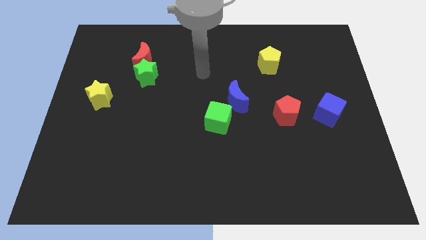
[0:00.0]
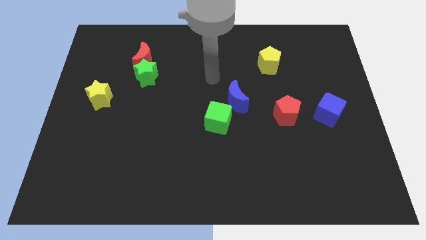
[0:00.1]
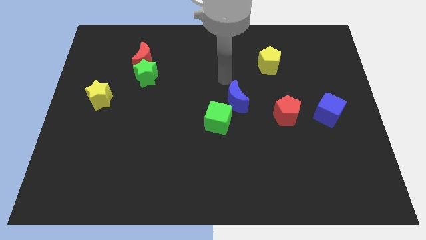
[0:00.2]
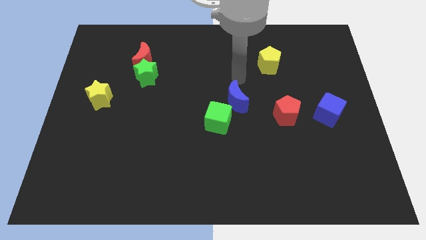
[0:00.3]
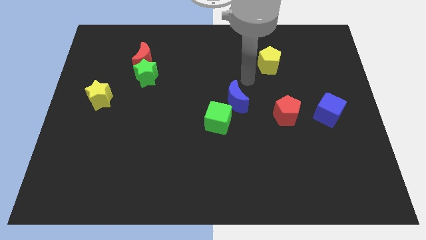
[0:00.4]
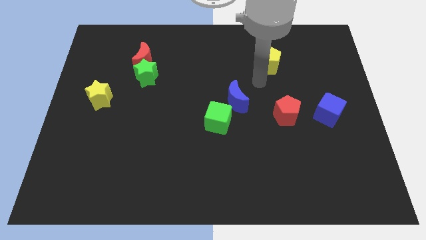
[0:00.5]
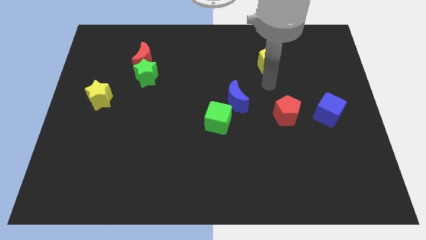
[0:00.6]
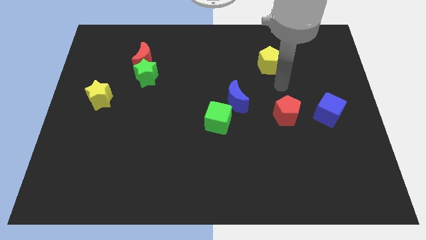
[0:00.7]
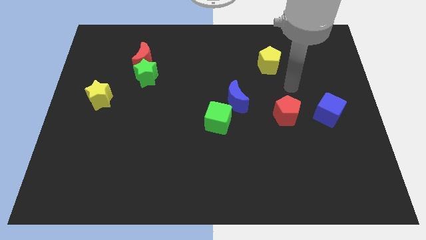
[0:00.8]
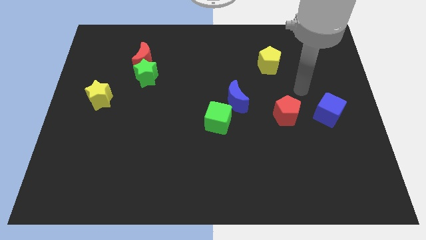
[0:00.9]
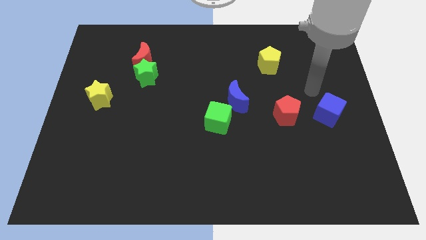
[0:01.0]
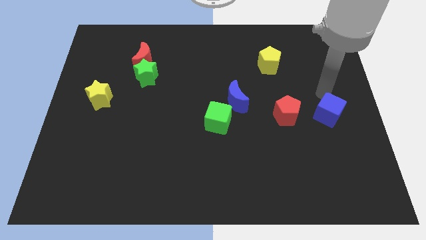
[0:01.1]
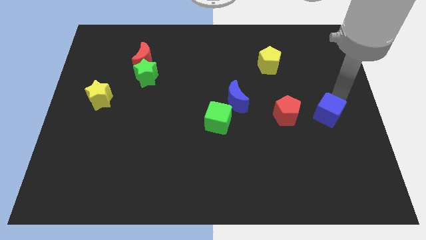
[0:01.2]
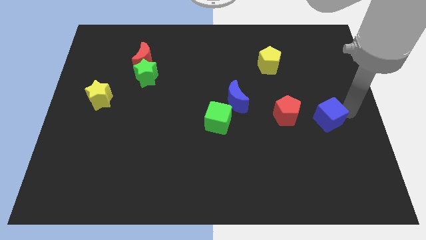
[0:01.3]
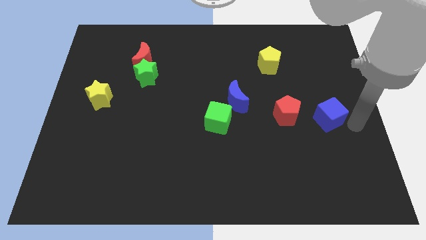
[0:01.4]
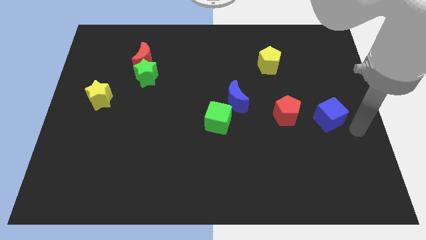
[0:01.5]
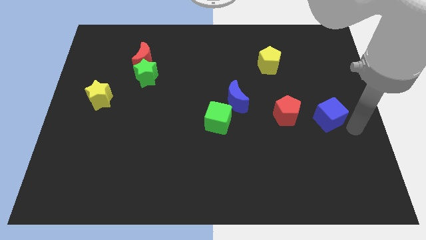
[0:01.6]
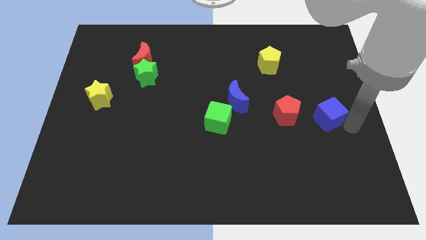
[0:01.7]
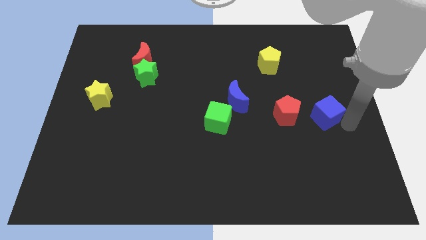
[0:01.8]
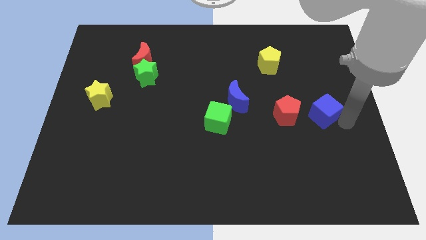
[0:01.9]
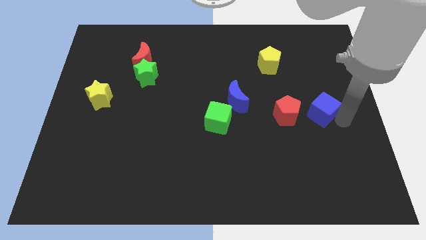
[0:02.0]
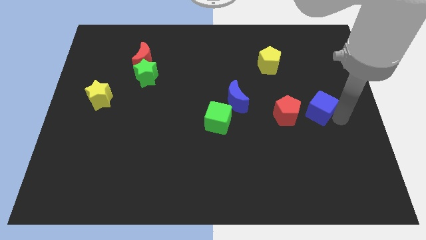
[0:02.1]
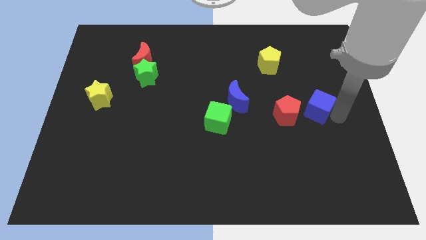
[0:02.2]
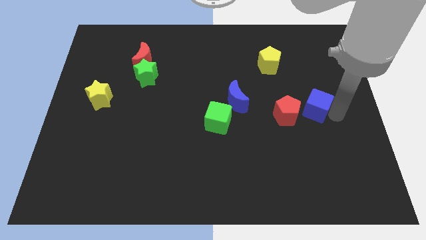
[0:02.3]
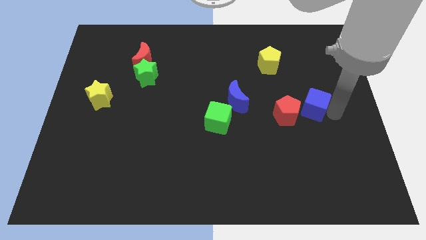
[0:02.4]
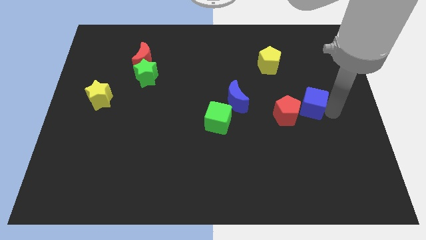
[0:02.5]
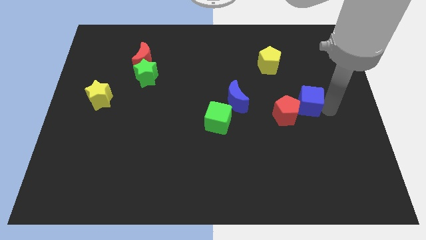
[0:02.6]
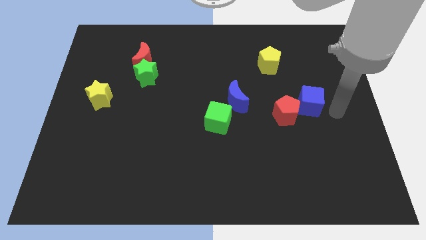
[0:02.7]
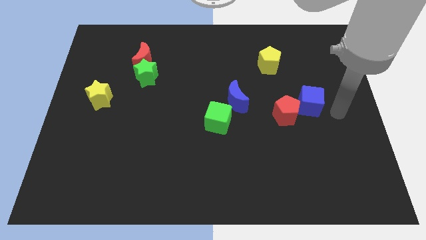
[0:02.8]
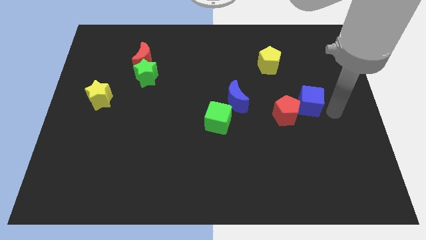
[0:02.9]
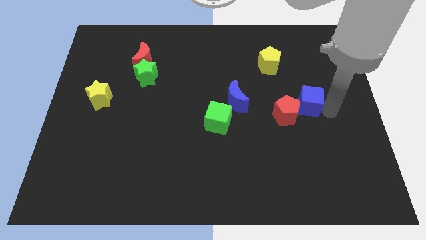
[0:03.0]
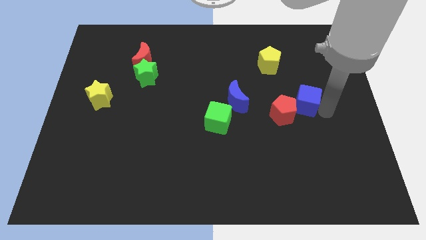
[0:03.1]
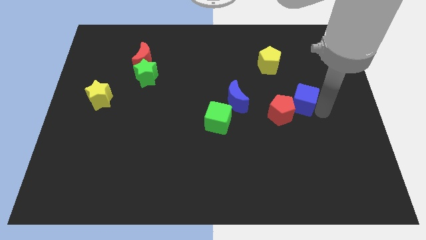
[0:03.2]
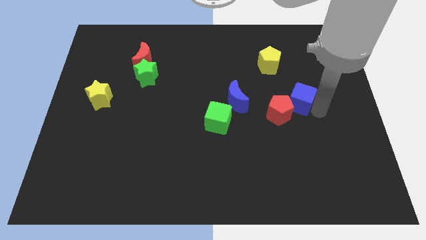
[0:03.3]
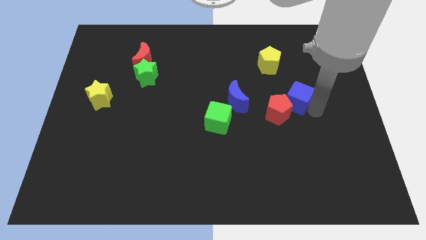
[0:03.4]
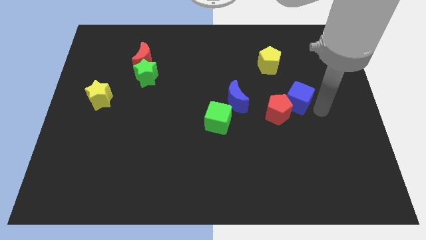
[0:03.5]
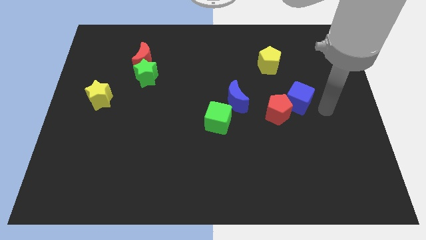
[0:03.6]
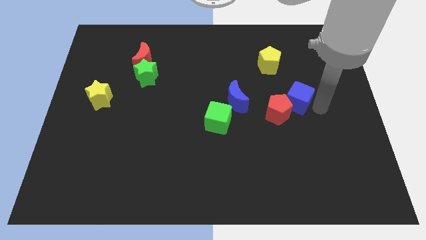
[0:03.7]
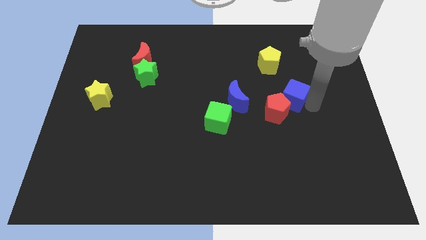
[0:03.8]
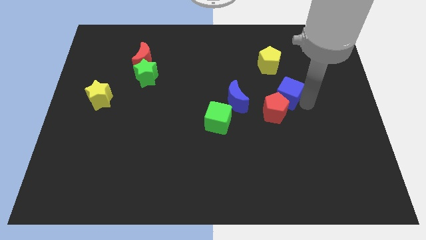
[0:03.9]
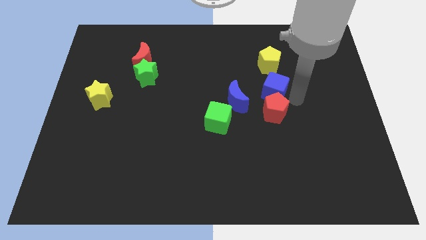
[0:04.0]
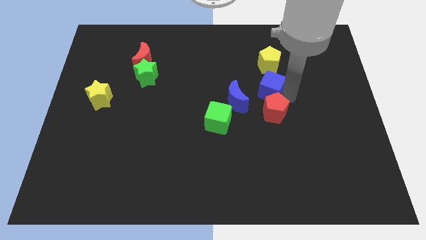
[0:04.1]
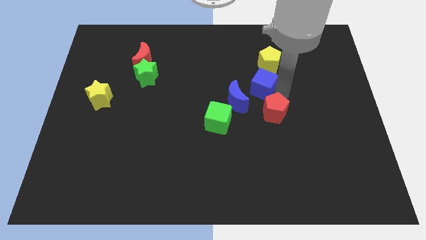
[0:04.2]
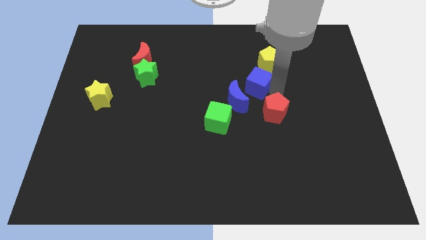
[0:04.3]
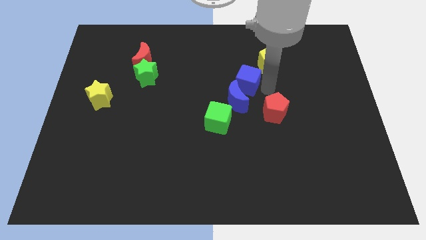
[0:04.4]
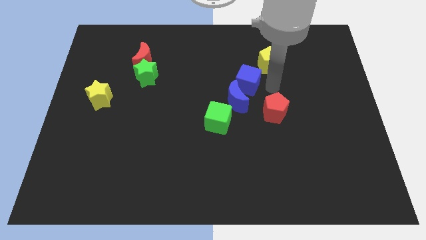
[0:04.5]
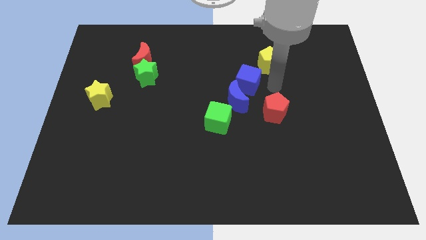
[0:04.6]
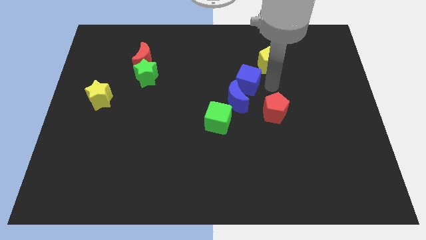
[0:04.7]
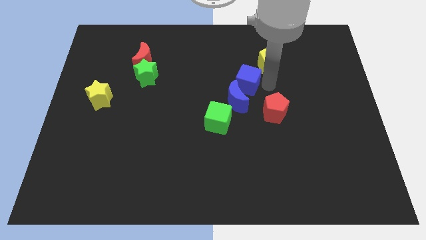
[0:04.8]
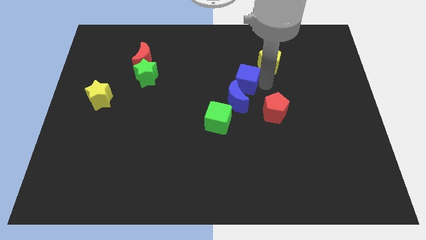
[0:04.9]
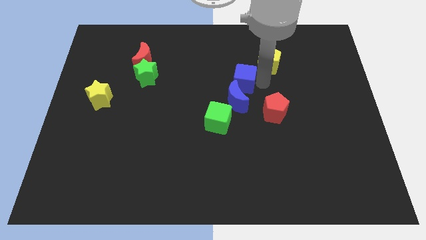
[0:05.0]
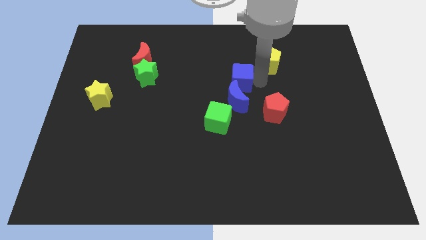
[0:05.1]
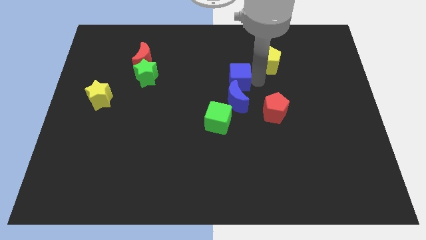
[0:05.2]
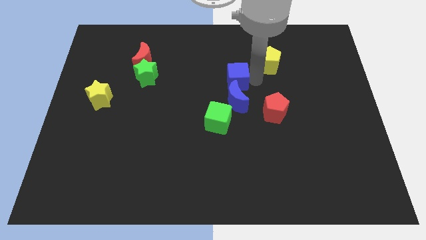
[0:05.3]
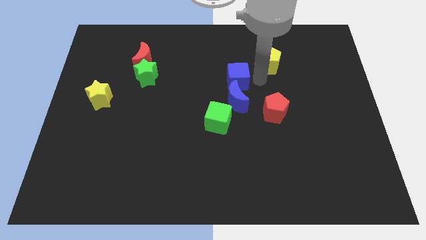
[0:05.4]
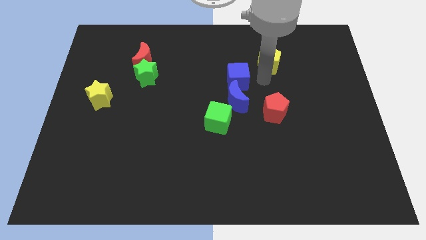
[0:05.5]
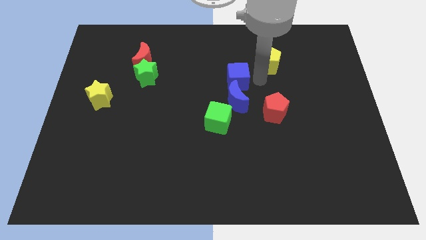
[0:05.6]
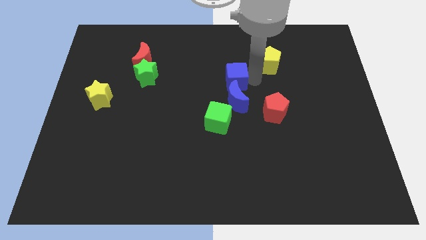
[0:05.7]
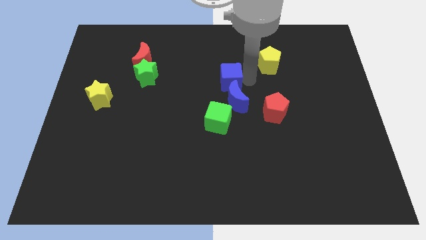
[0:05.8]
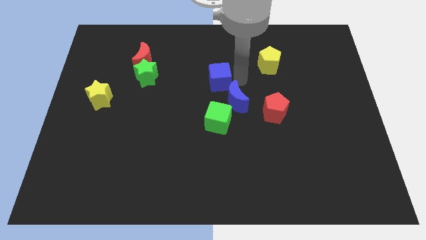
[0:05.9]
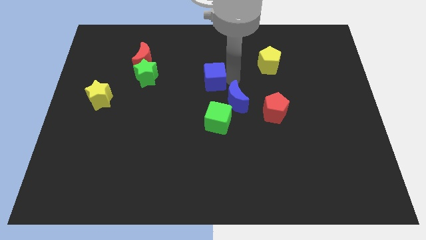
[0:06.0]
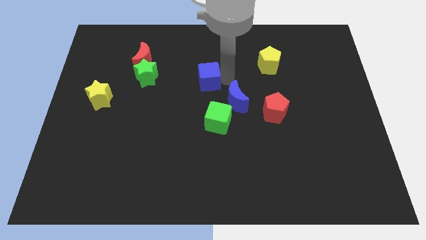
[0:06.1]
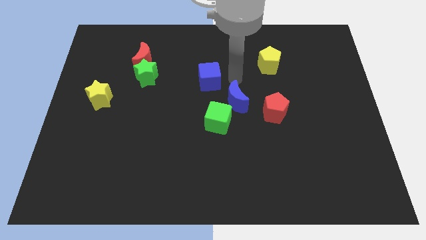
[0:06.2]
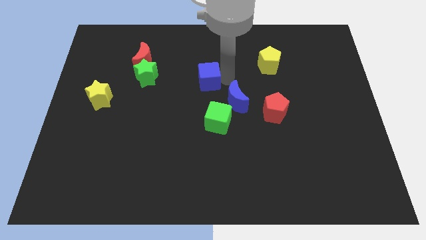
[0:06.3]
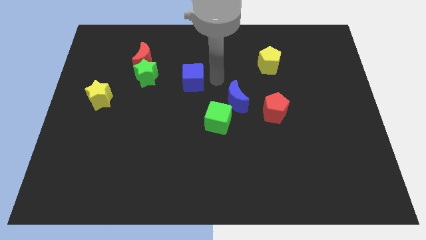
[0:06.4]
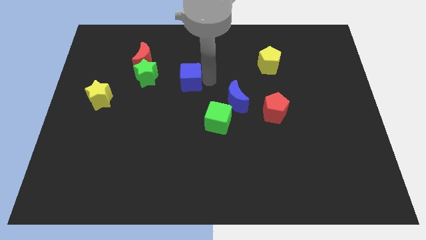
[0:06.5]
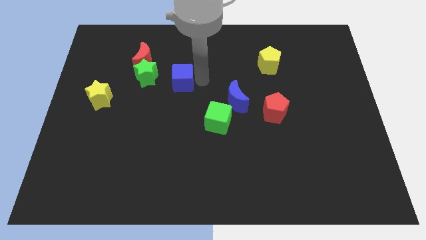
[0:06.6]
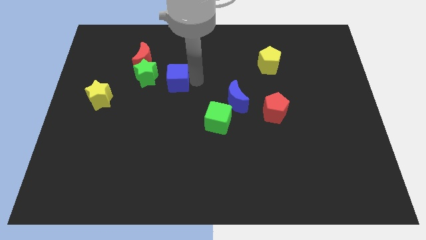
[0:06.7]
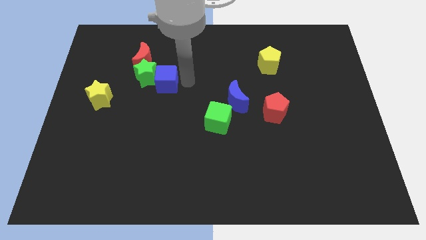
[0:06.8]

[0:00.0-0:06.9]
slide the blue cube close to the green star
